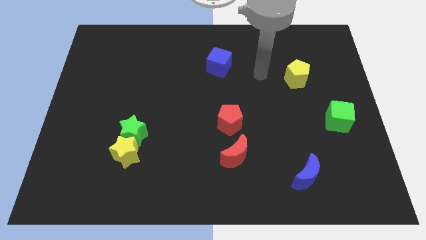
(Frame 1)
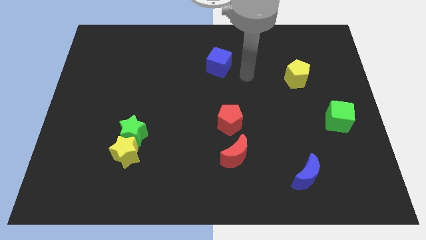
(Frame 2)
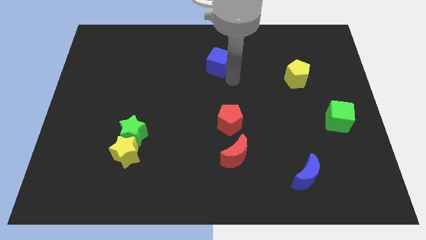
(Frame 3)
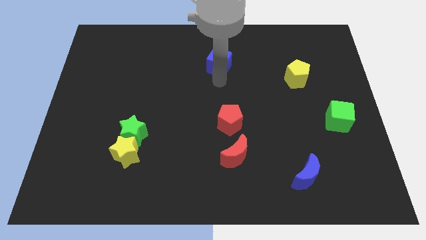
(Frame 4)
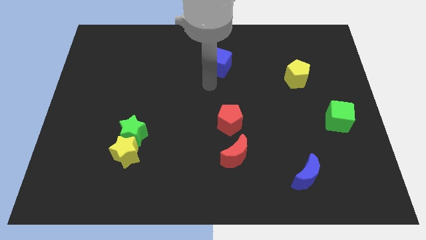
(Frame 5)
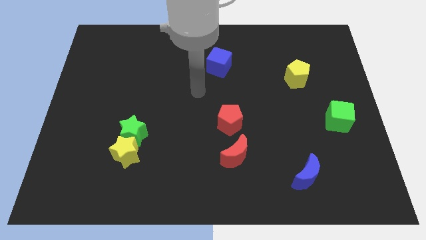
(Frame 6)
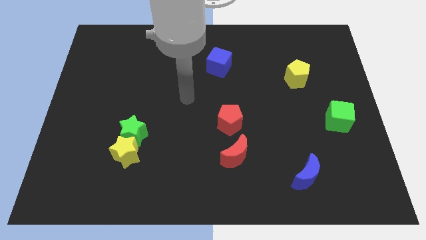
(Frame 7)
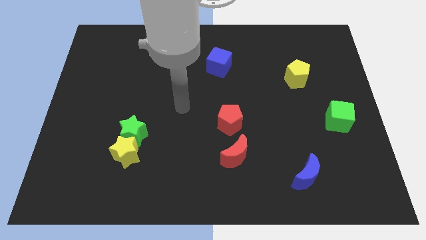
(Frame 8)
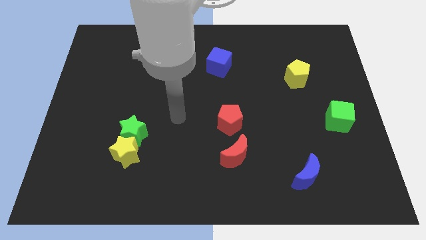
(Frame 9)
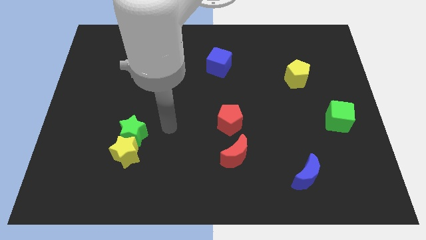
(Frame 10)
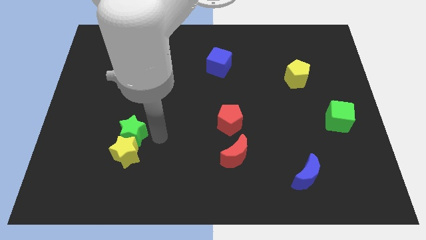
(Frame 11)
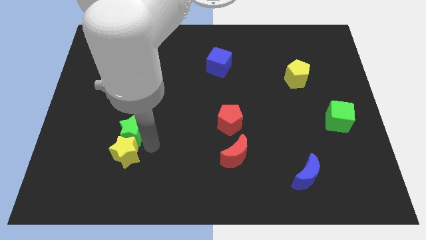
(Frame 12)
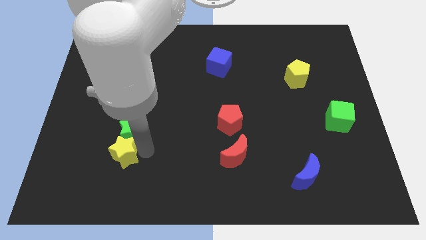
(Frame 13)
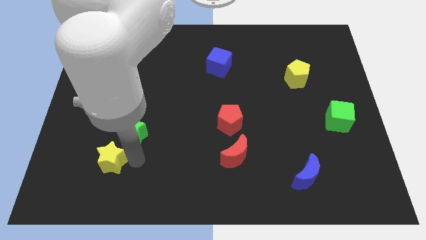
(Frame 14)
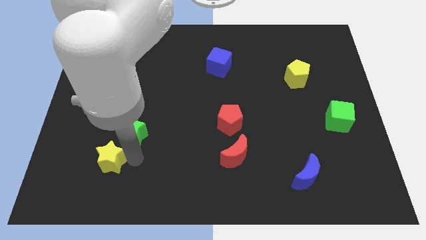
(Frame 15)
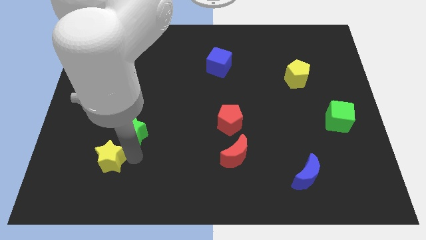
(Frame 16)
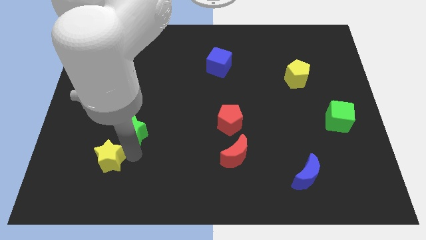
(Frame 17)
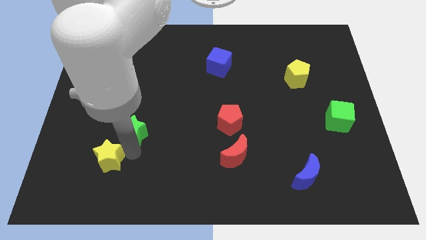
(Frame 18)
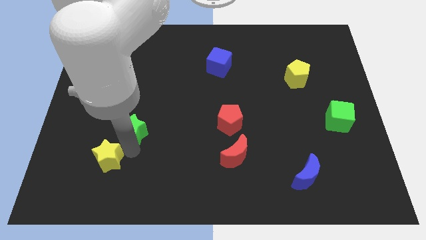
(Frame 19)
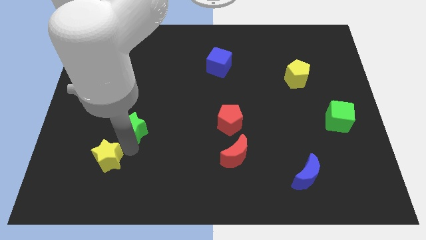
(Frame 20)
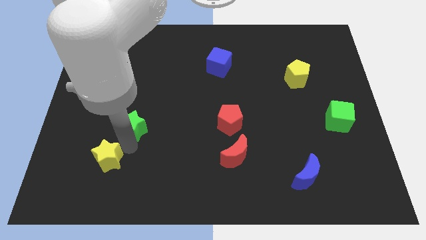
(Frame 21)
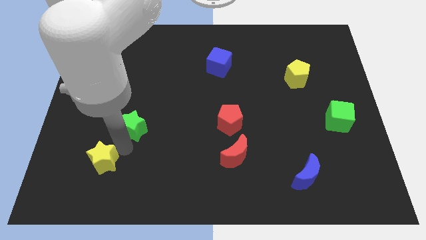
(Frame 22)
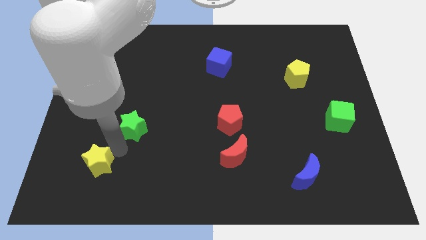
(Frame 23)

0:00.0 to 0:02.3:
move the green star away from the yellow star

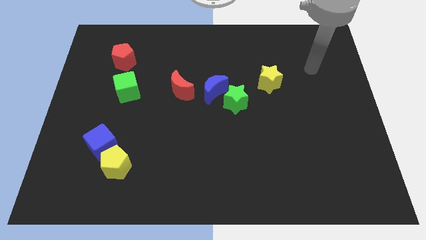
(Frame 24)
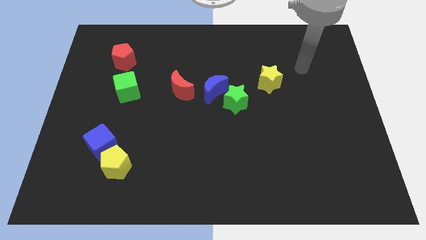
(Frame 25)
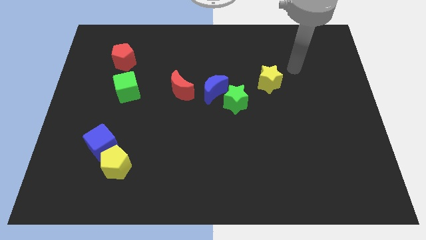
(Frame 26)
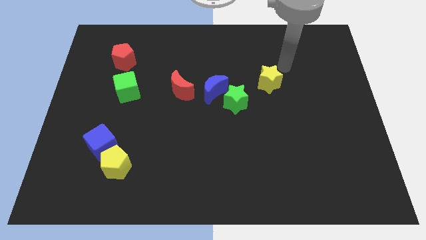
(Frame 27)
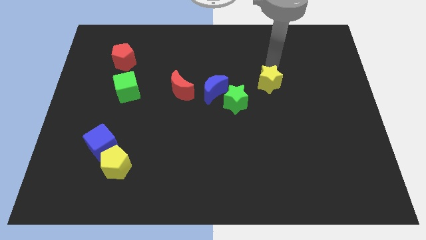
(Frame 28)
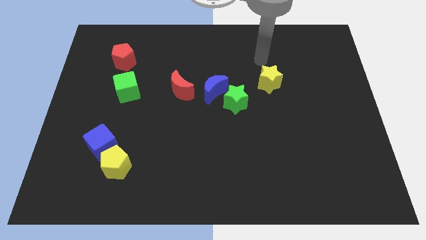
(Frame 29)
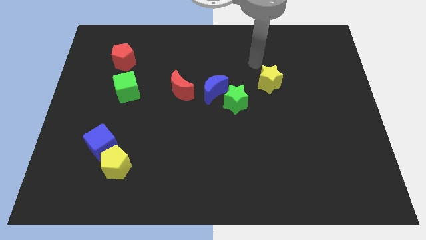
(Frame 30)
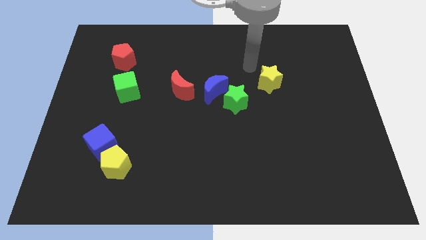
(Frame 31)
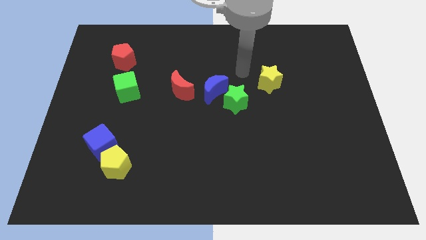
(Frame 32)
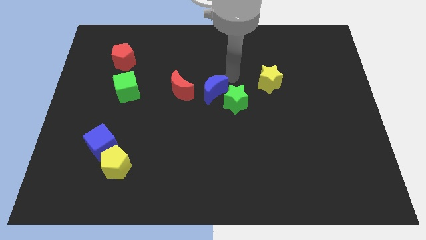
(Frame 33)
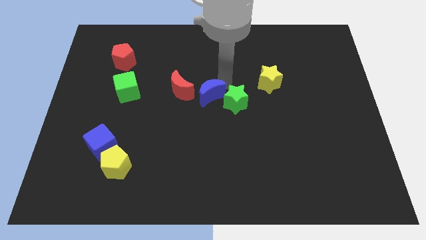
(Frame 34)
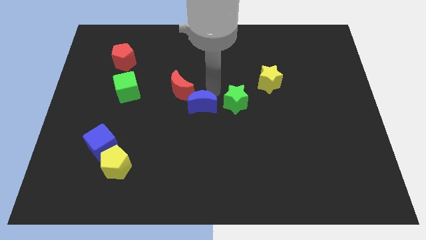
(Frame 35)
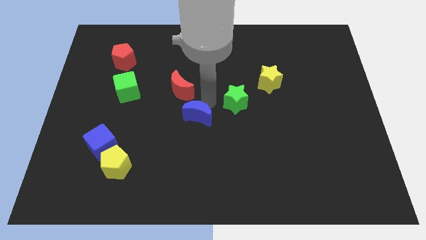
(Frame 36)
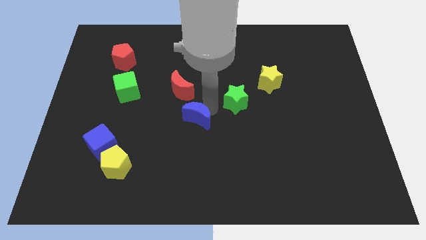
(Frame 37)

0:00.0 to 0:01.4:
move the green star away from the blue moon

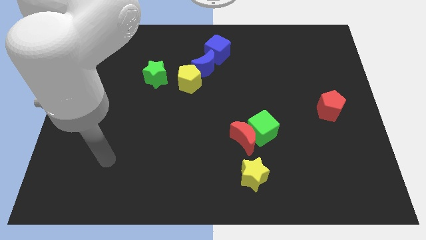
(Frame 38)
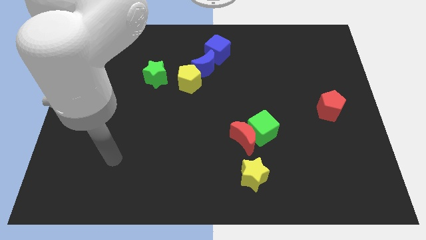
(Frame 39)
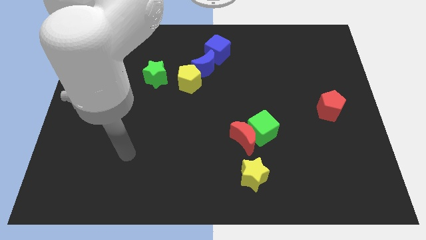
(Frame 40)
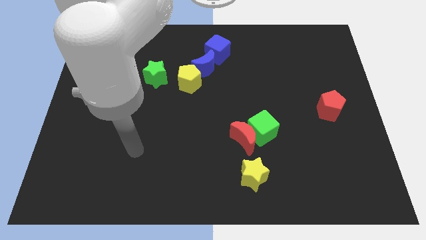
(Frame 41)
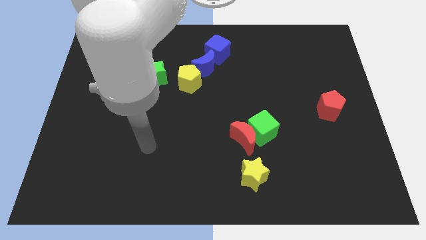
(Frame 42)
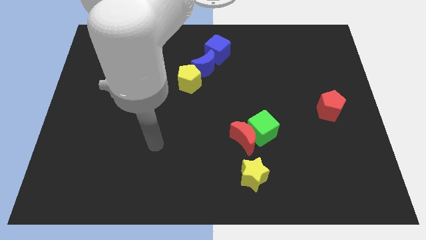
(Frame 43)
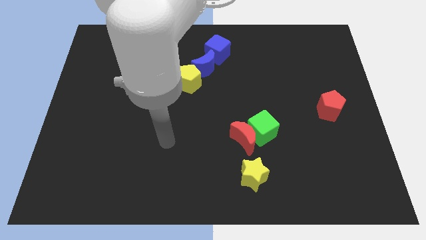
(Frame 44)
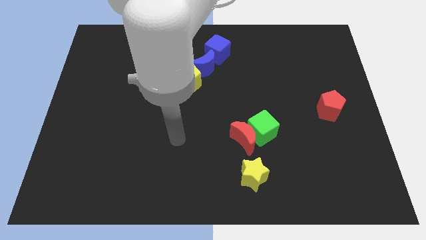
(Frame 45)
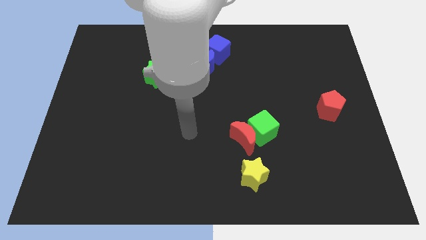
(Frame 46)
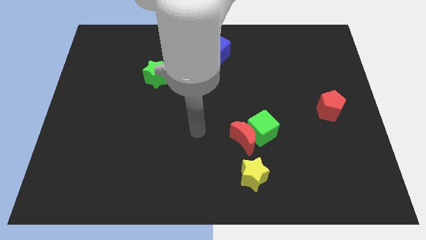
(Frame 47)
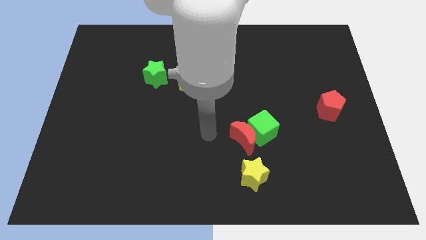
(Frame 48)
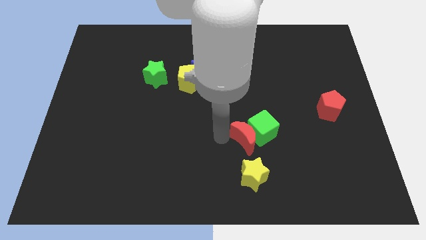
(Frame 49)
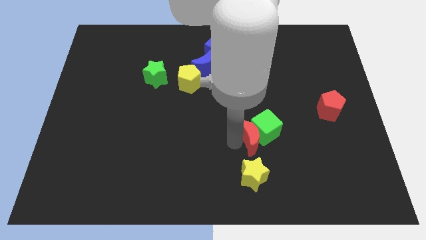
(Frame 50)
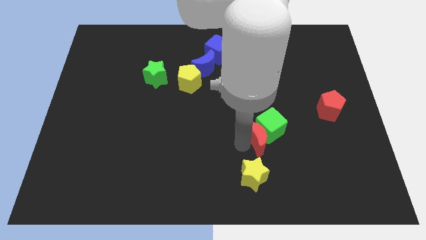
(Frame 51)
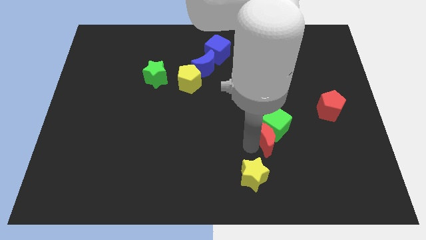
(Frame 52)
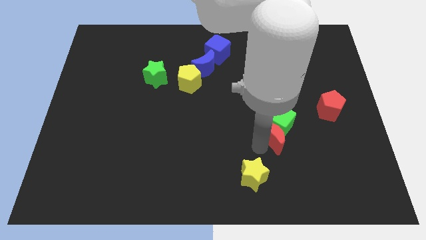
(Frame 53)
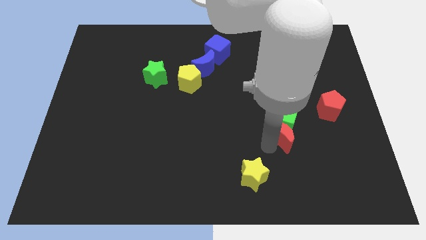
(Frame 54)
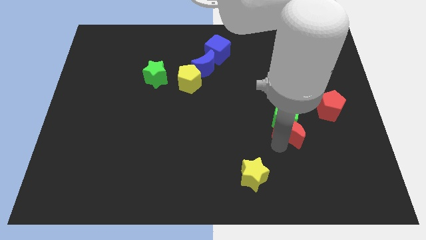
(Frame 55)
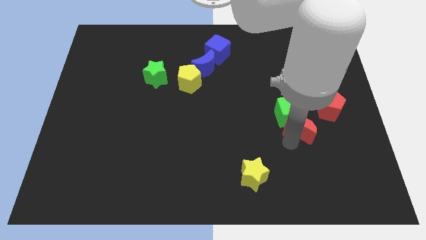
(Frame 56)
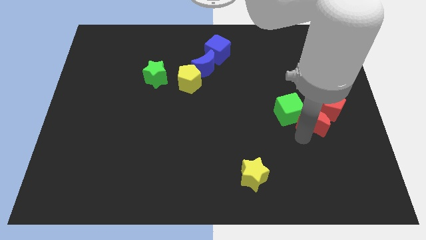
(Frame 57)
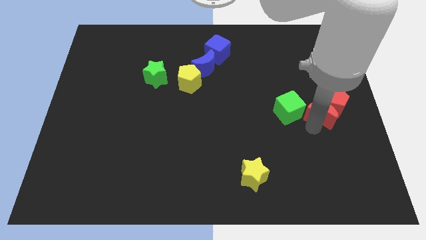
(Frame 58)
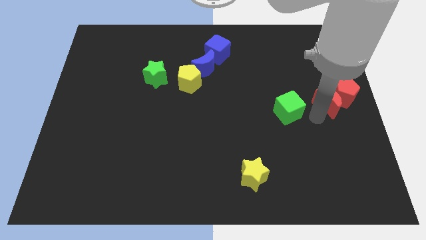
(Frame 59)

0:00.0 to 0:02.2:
separate the green cube from the red moon

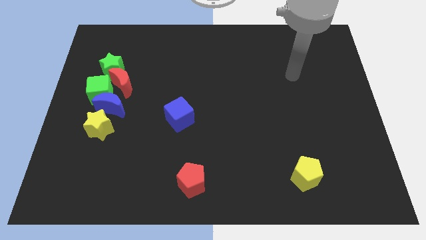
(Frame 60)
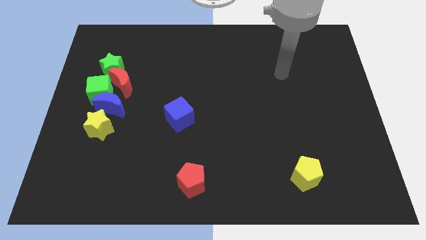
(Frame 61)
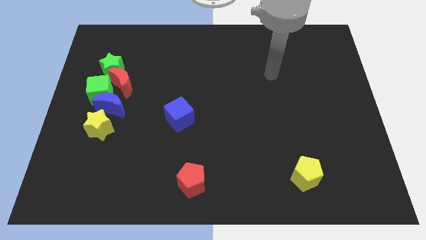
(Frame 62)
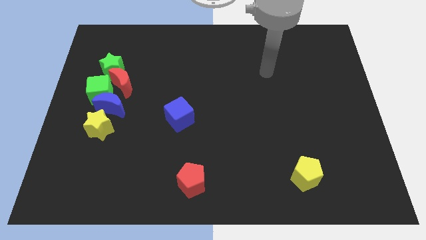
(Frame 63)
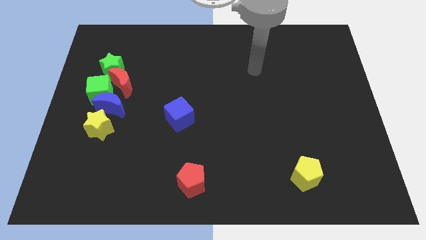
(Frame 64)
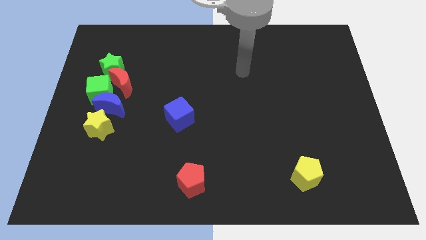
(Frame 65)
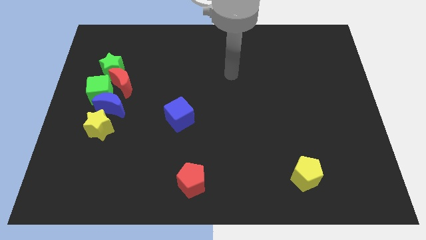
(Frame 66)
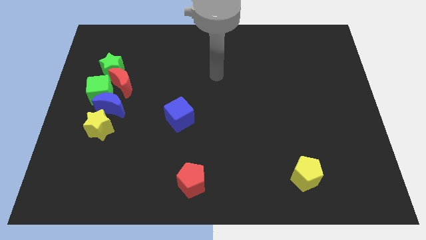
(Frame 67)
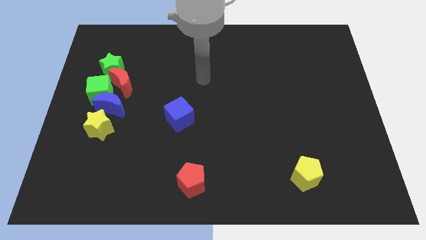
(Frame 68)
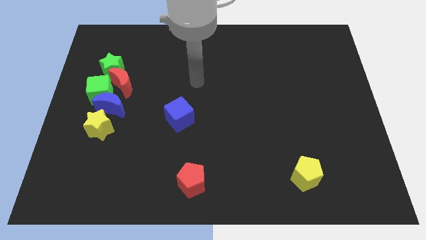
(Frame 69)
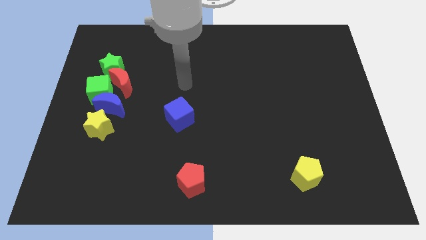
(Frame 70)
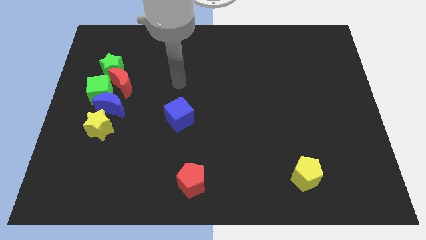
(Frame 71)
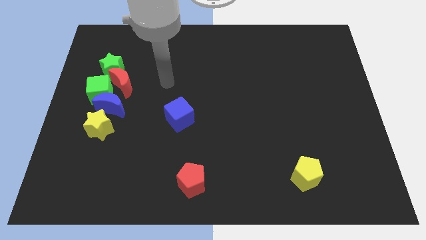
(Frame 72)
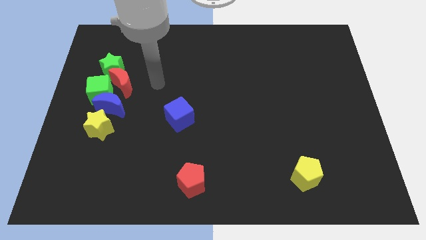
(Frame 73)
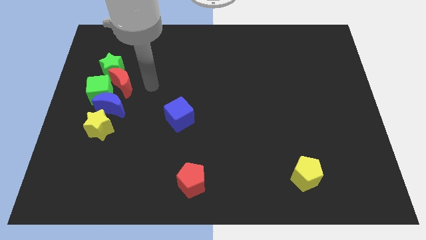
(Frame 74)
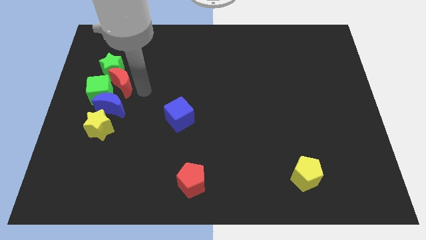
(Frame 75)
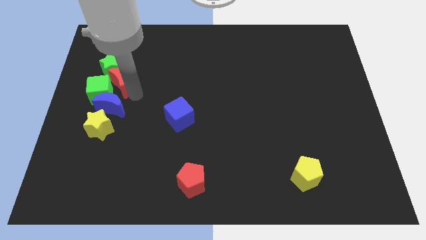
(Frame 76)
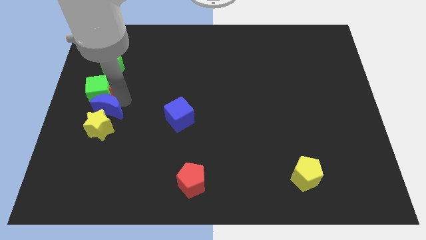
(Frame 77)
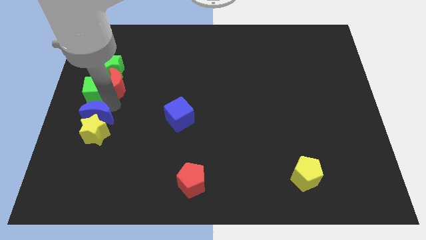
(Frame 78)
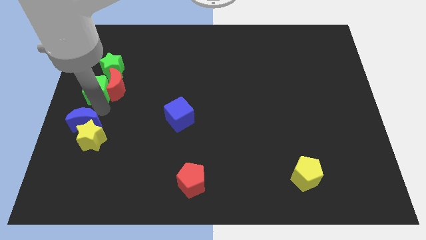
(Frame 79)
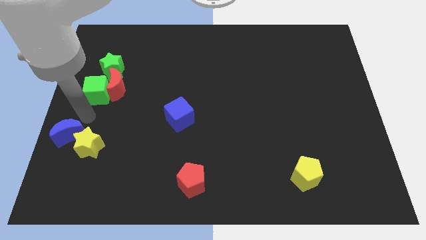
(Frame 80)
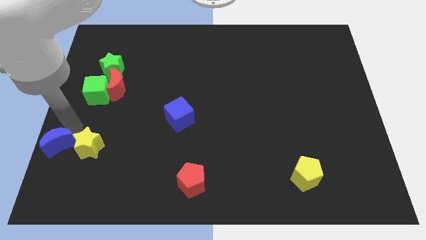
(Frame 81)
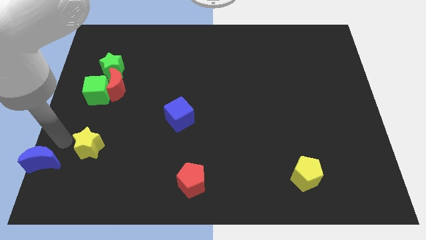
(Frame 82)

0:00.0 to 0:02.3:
separate the yellow star from the blue moon

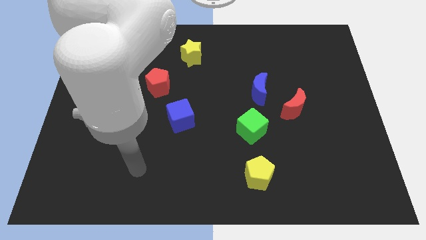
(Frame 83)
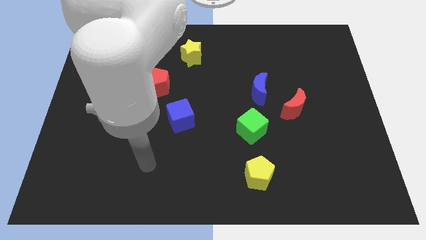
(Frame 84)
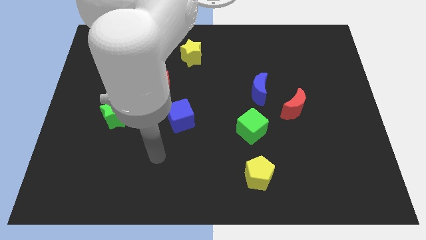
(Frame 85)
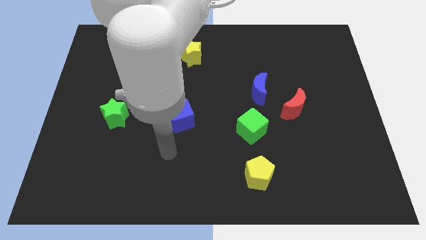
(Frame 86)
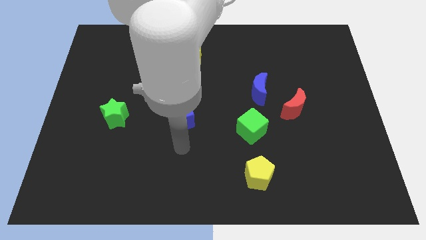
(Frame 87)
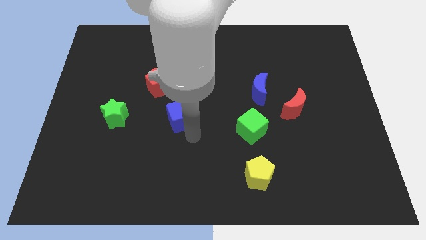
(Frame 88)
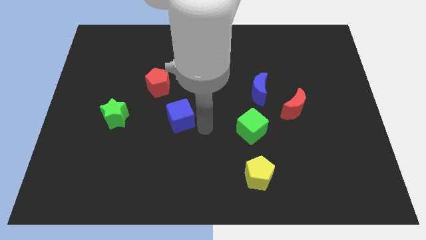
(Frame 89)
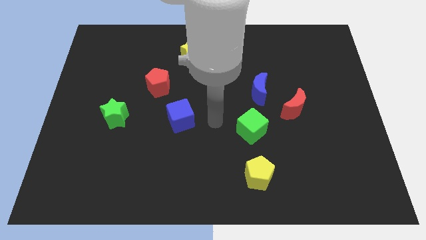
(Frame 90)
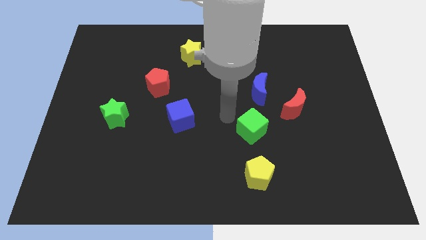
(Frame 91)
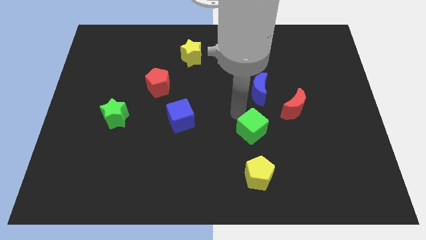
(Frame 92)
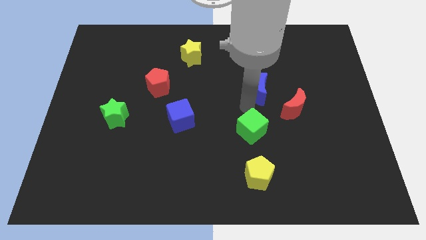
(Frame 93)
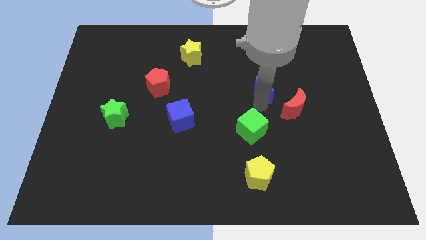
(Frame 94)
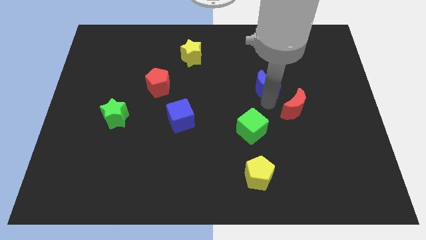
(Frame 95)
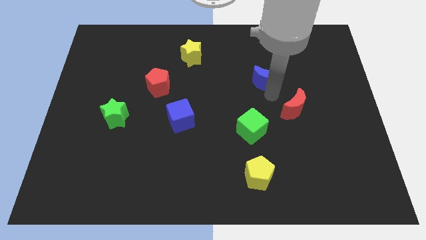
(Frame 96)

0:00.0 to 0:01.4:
move the red moon away from the blue moon
